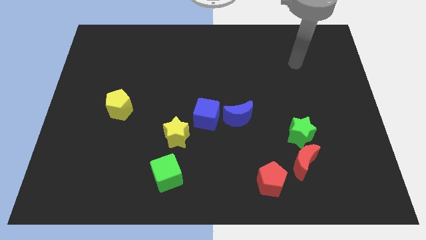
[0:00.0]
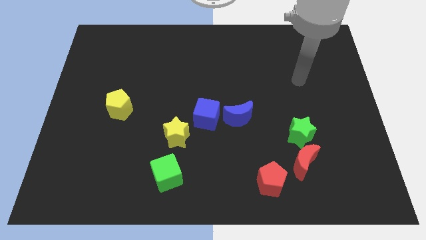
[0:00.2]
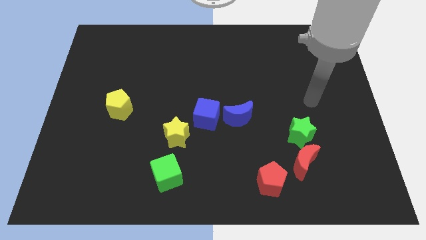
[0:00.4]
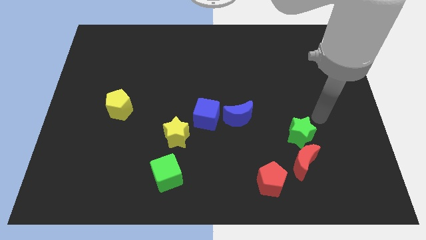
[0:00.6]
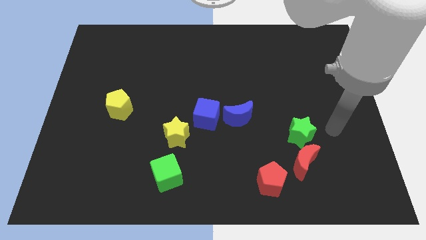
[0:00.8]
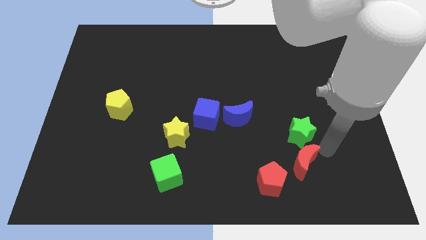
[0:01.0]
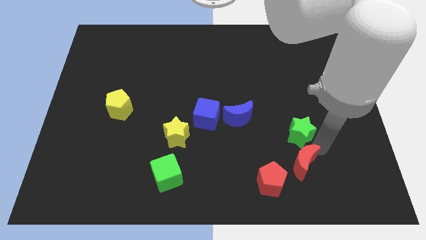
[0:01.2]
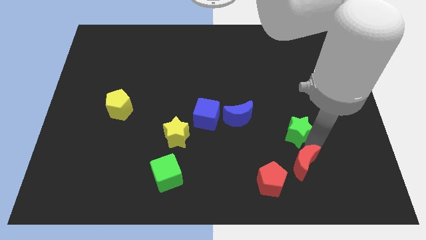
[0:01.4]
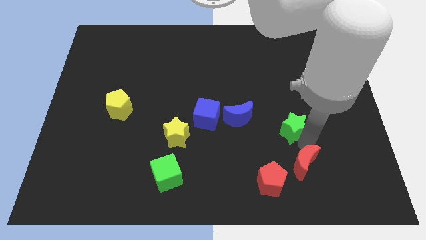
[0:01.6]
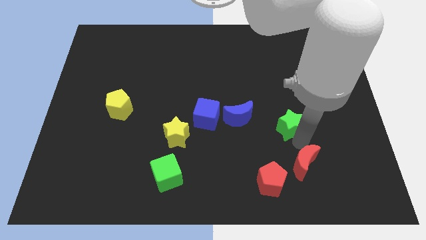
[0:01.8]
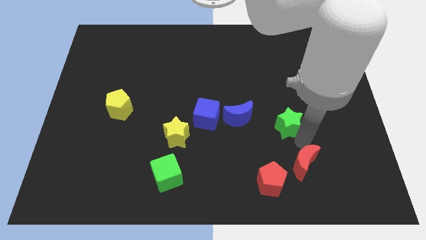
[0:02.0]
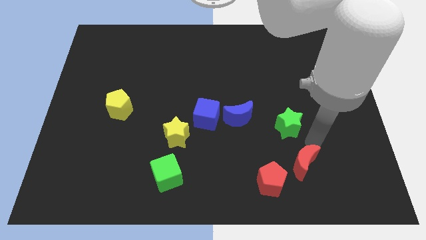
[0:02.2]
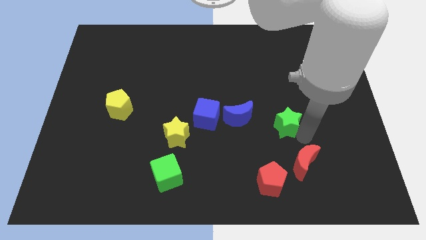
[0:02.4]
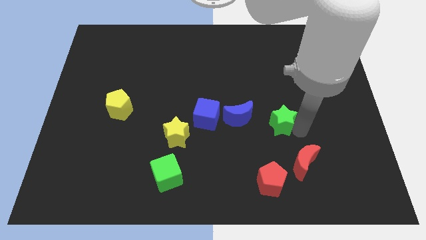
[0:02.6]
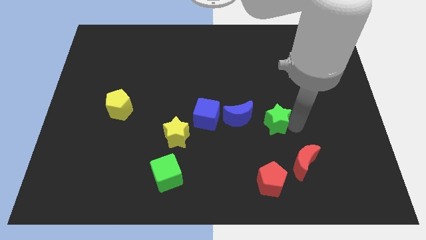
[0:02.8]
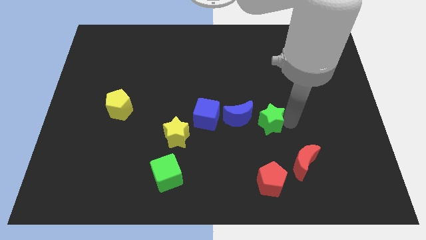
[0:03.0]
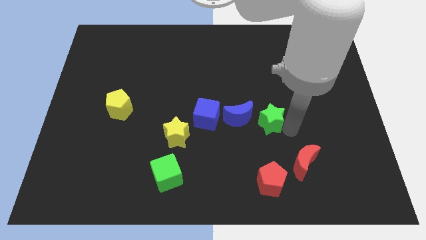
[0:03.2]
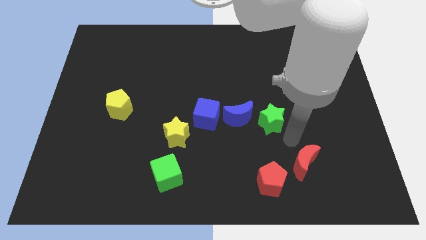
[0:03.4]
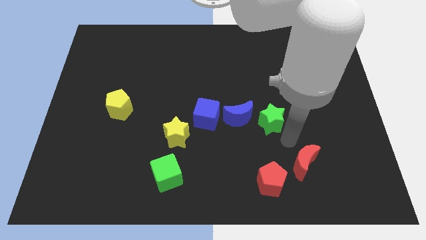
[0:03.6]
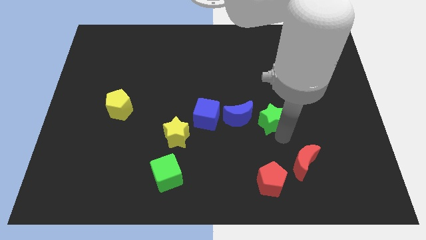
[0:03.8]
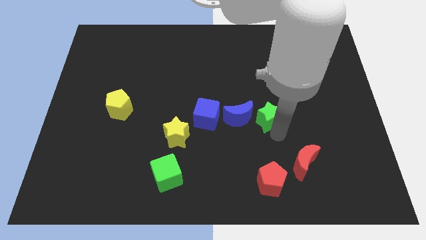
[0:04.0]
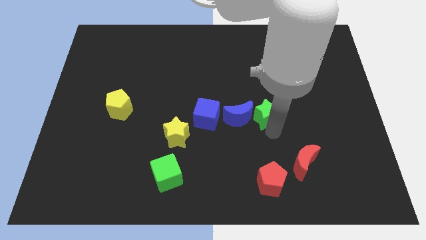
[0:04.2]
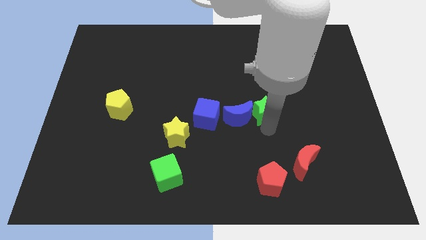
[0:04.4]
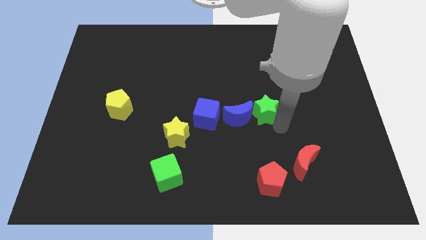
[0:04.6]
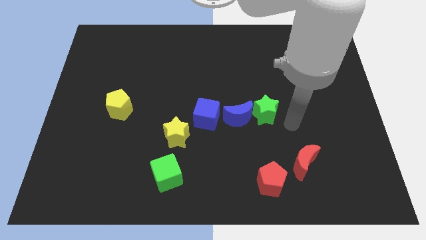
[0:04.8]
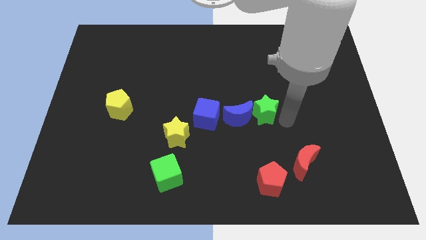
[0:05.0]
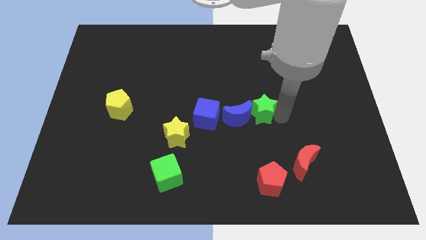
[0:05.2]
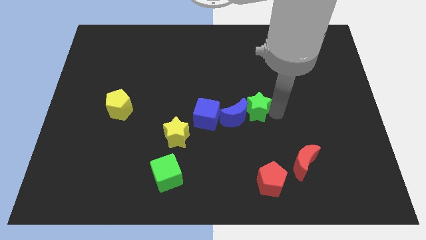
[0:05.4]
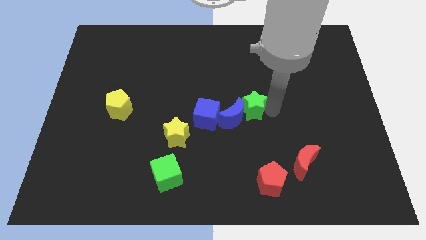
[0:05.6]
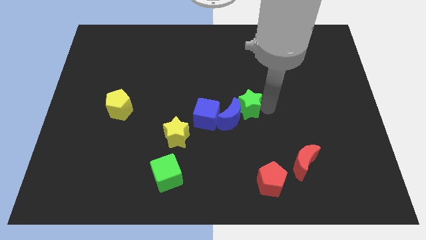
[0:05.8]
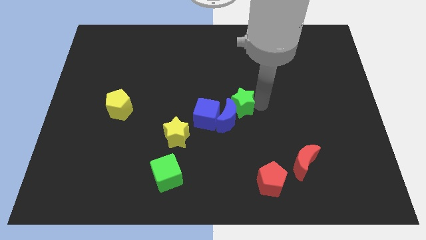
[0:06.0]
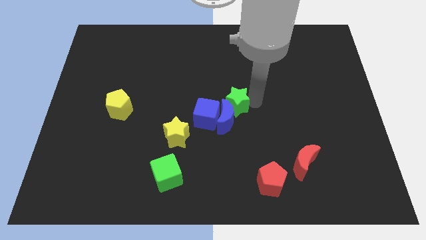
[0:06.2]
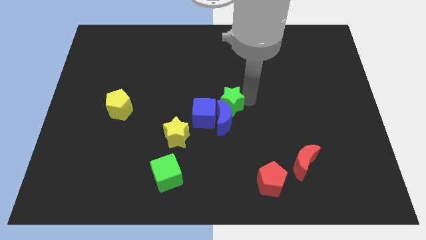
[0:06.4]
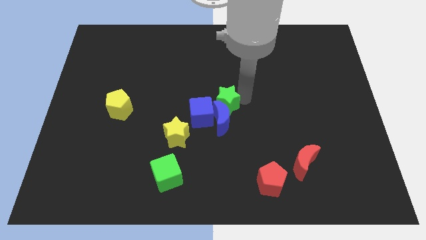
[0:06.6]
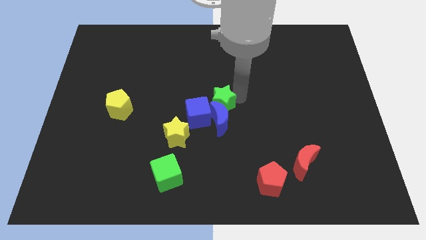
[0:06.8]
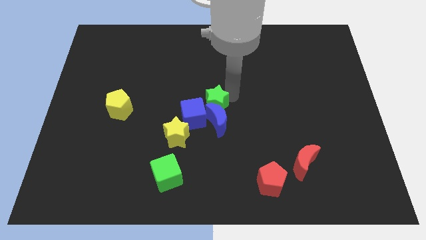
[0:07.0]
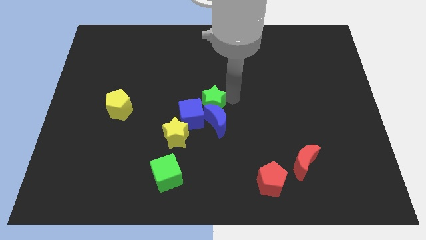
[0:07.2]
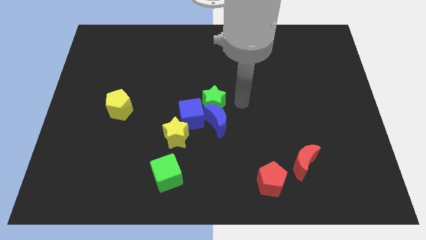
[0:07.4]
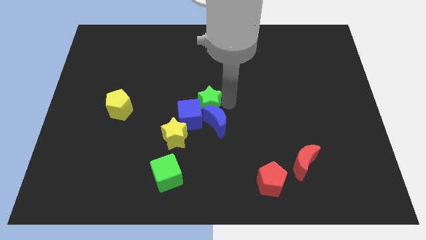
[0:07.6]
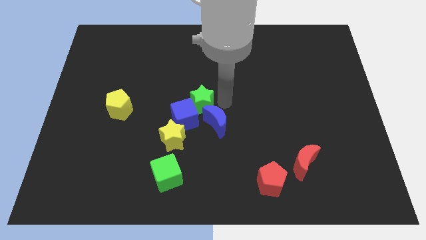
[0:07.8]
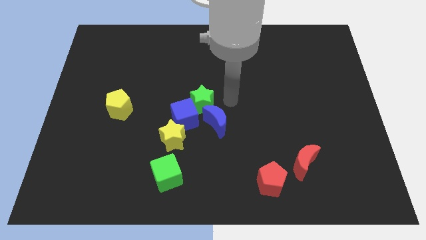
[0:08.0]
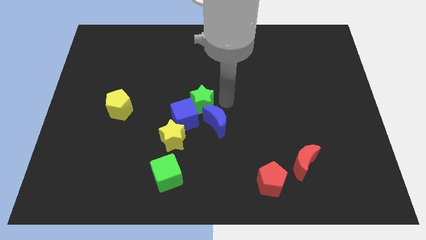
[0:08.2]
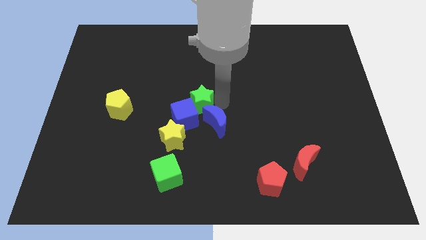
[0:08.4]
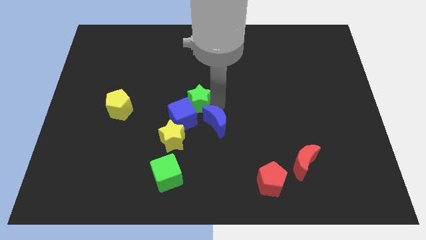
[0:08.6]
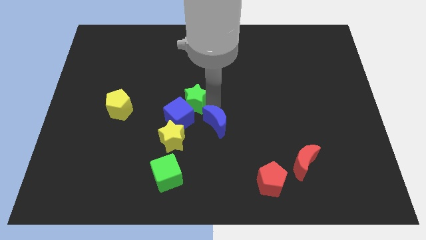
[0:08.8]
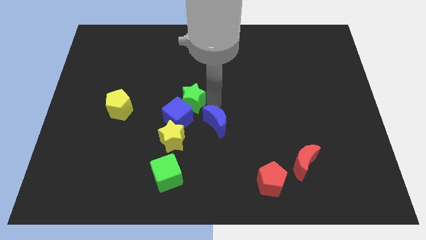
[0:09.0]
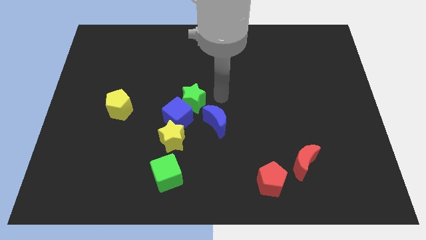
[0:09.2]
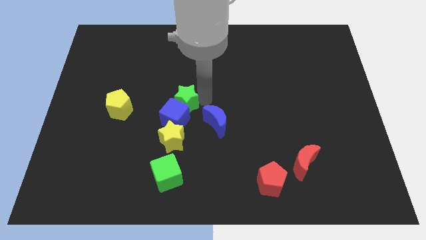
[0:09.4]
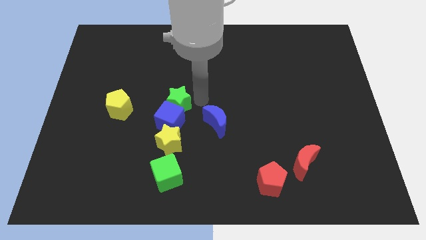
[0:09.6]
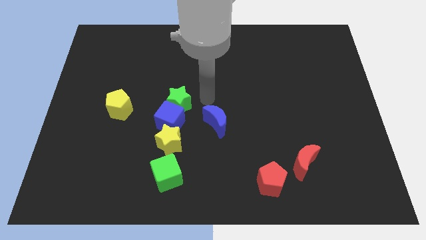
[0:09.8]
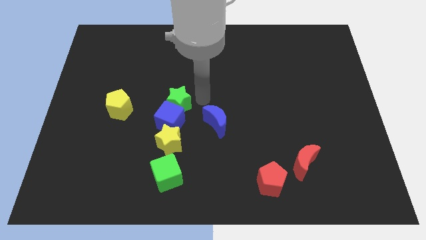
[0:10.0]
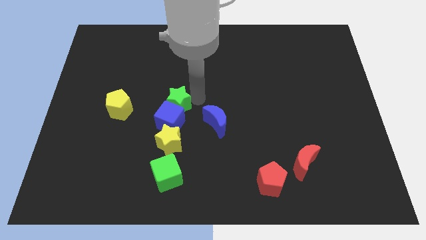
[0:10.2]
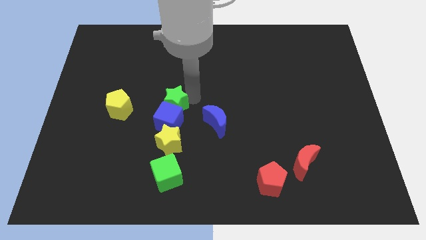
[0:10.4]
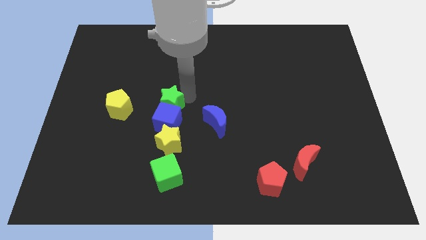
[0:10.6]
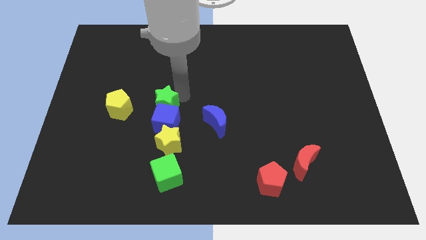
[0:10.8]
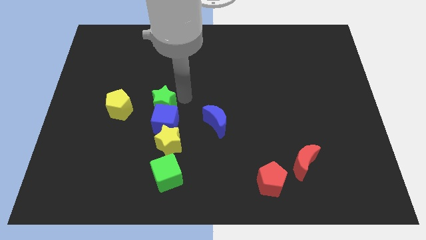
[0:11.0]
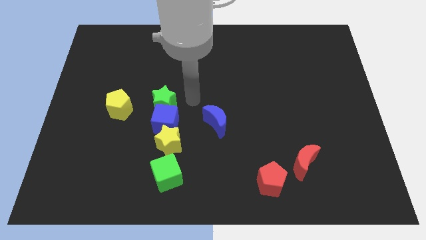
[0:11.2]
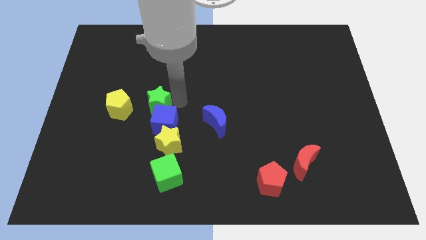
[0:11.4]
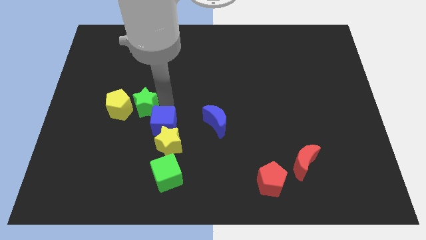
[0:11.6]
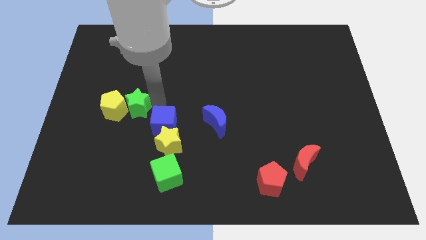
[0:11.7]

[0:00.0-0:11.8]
push the green star to the yellow pentagon
